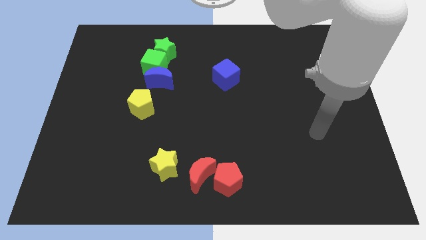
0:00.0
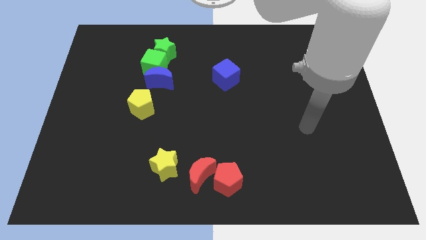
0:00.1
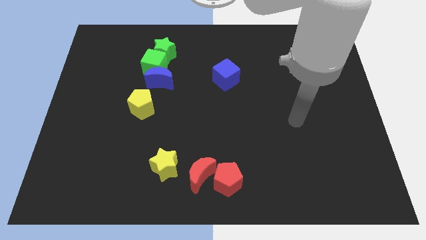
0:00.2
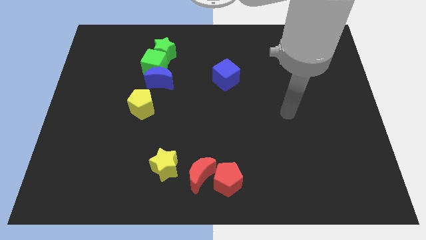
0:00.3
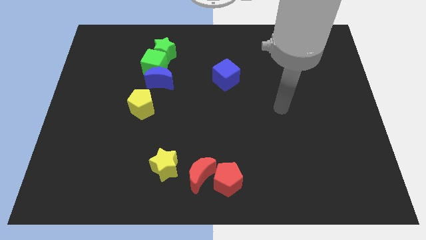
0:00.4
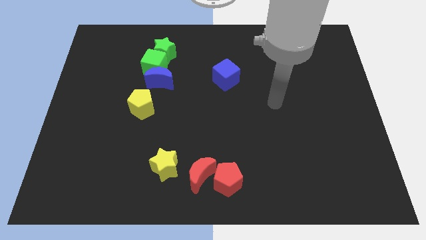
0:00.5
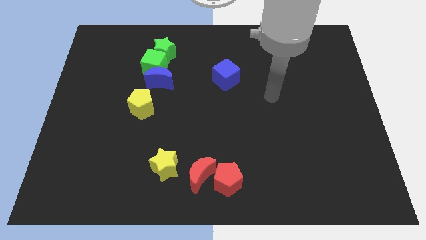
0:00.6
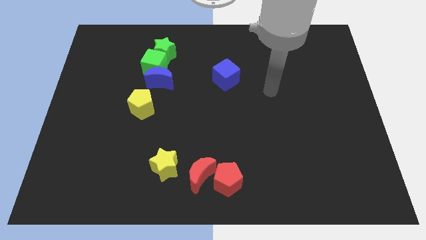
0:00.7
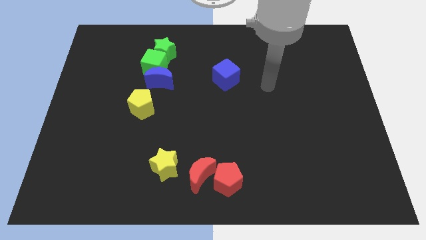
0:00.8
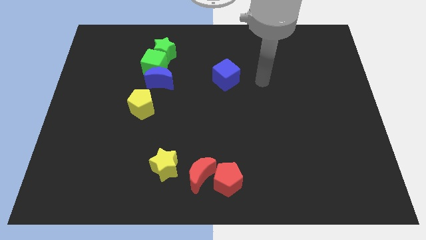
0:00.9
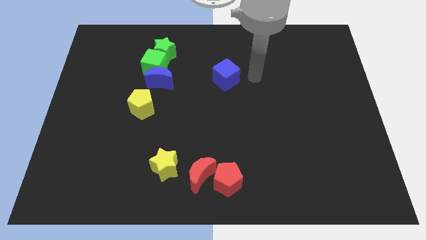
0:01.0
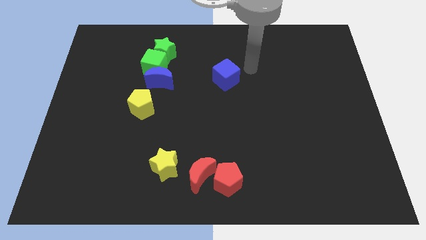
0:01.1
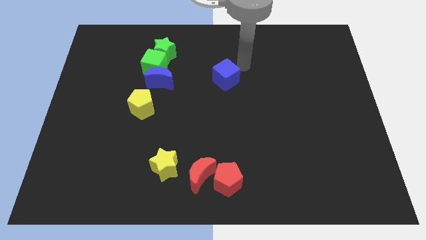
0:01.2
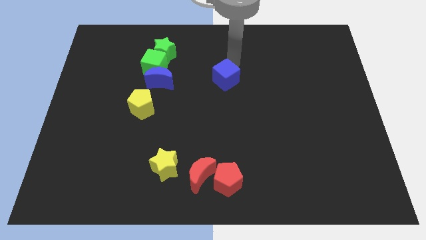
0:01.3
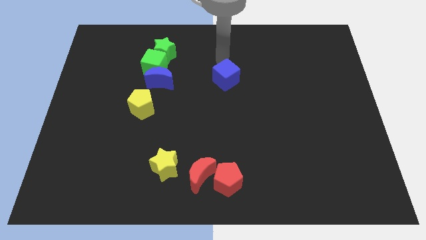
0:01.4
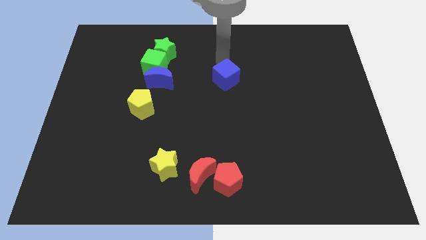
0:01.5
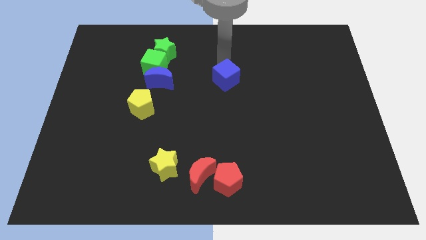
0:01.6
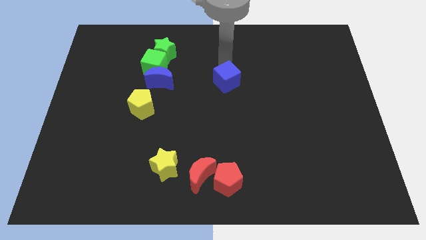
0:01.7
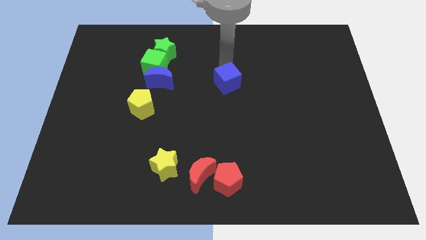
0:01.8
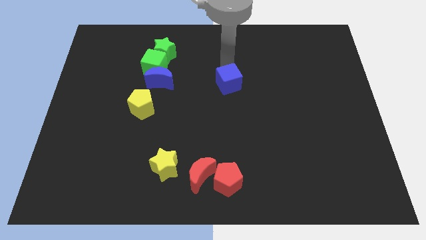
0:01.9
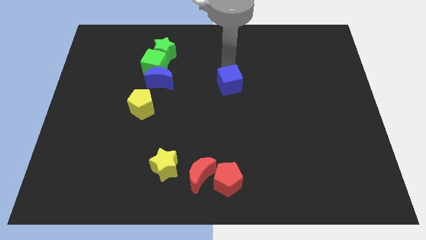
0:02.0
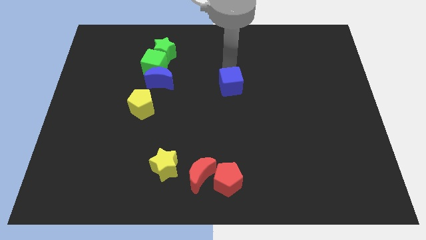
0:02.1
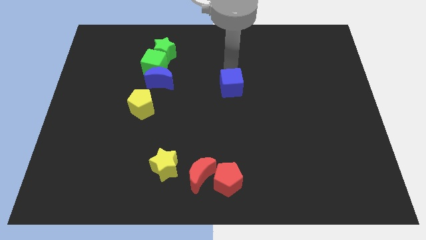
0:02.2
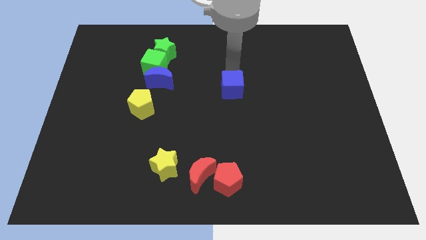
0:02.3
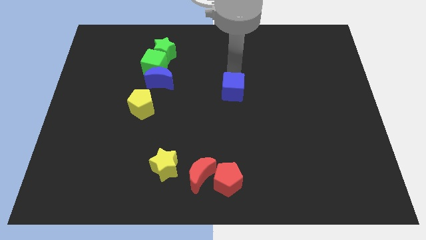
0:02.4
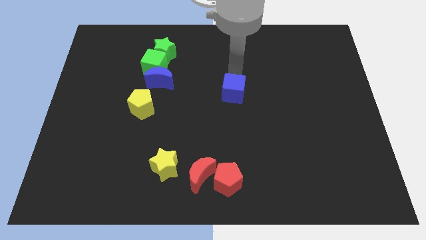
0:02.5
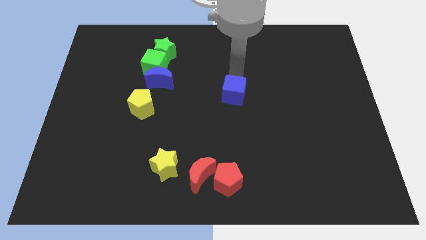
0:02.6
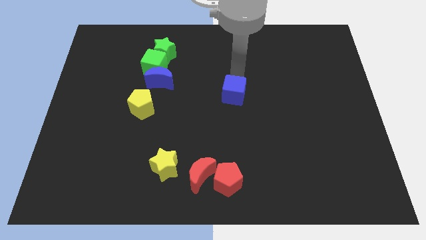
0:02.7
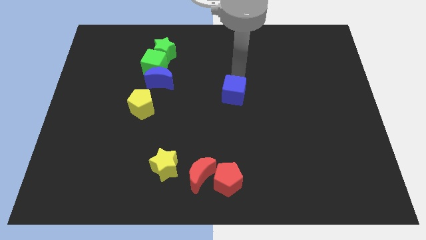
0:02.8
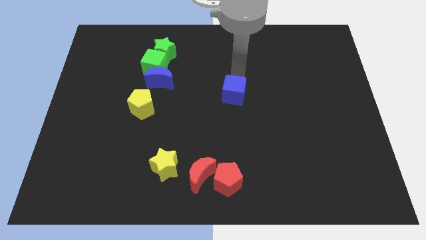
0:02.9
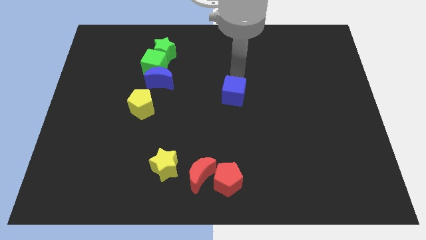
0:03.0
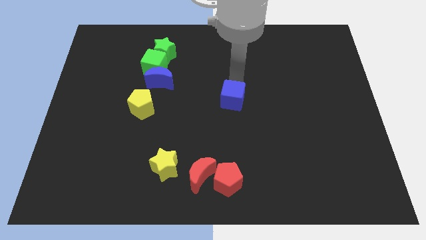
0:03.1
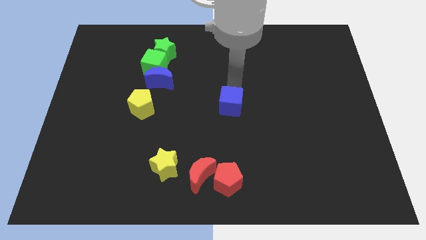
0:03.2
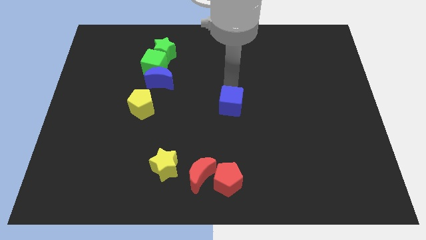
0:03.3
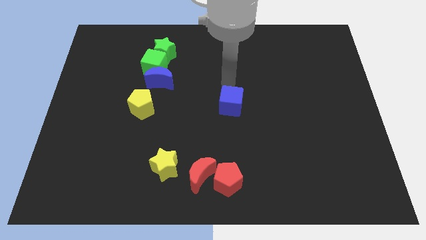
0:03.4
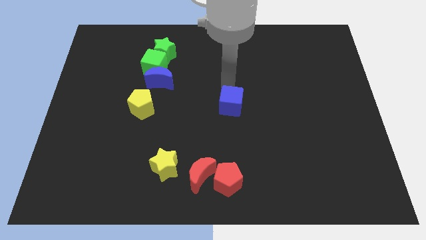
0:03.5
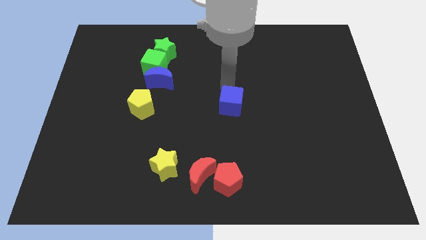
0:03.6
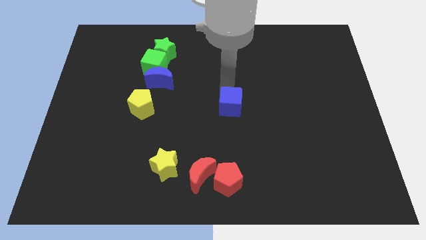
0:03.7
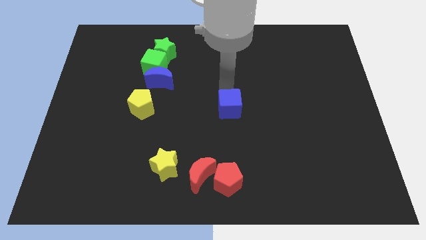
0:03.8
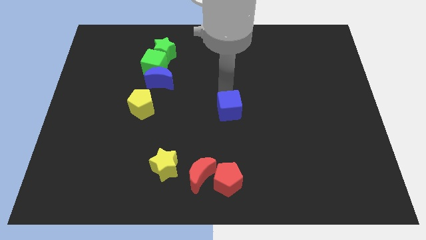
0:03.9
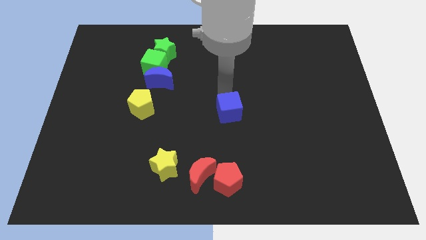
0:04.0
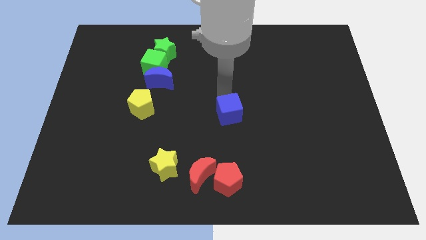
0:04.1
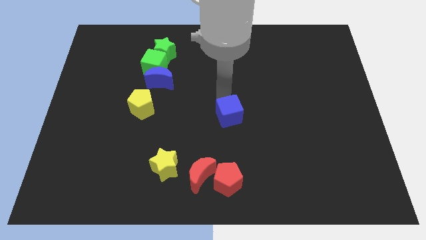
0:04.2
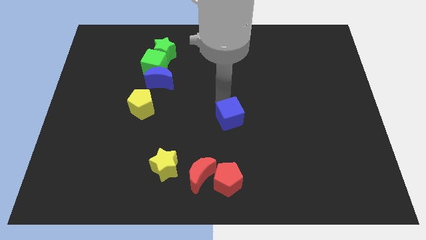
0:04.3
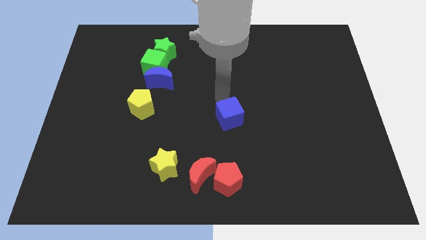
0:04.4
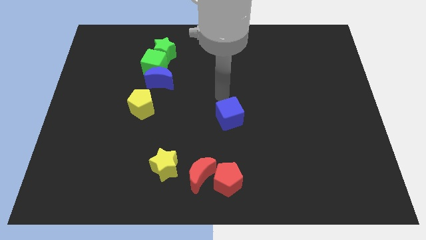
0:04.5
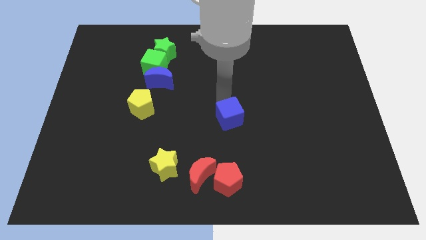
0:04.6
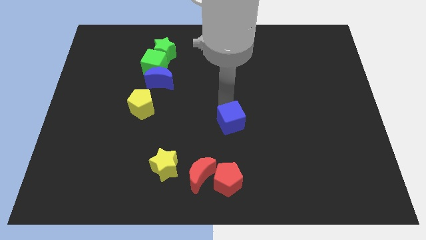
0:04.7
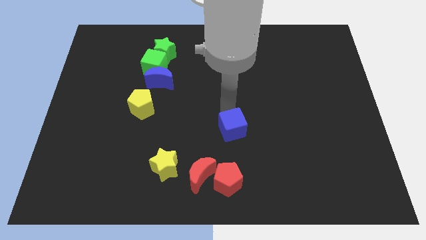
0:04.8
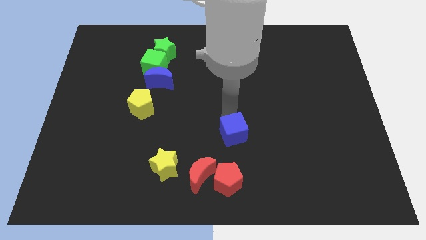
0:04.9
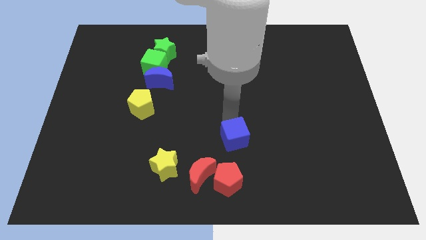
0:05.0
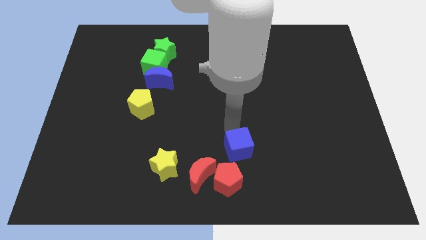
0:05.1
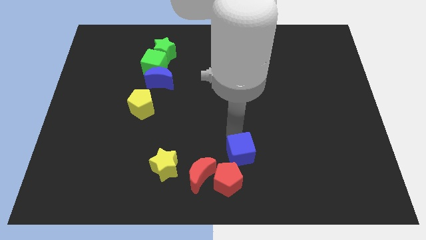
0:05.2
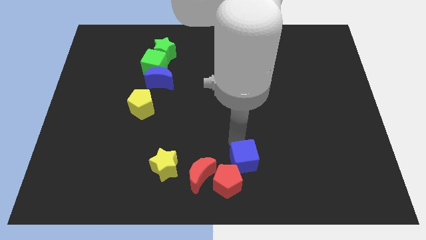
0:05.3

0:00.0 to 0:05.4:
push the blue cube just right of the red moon

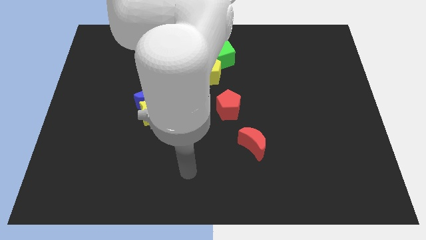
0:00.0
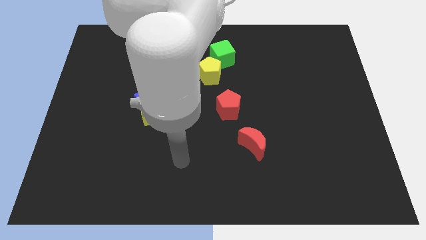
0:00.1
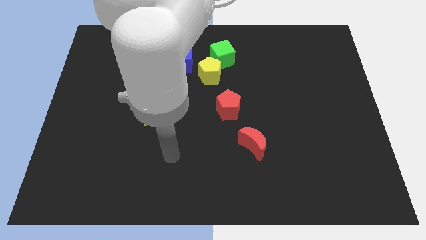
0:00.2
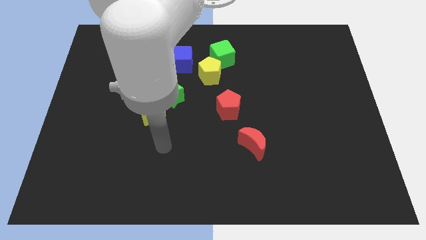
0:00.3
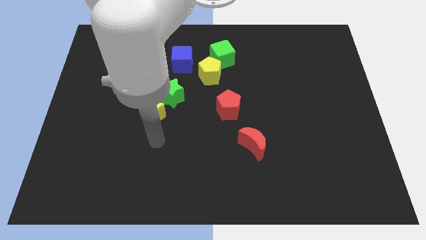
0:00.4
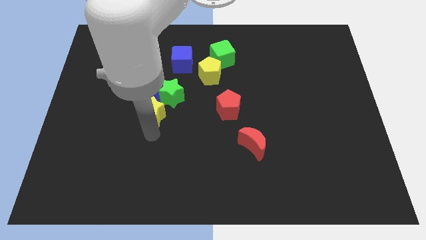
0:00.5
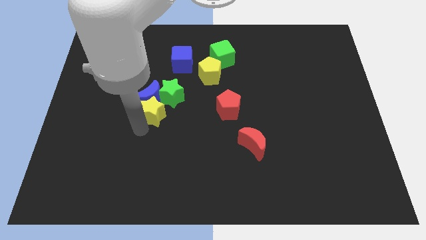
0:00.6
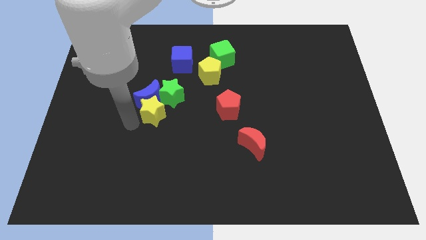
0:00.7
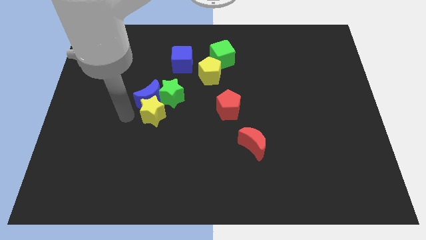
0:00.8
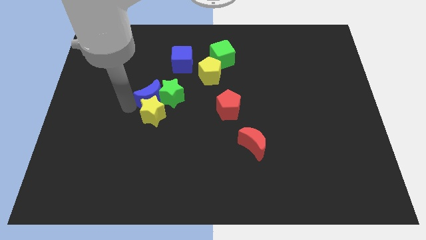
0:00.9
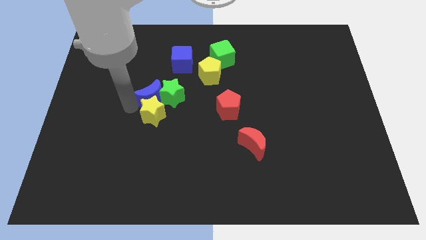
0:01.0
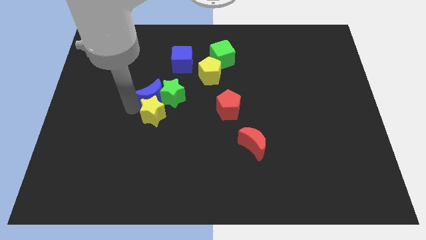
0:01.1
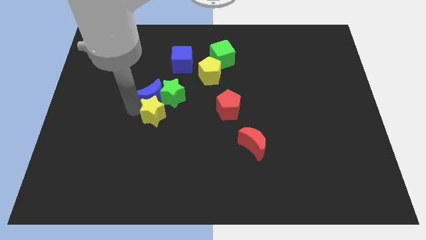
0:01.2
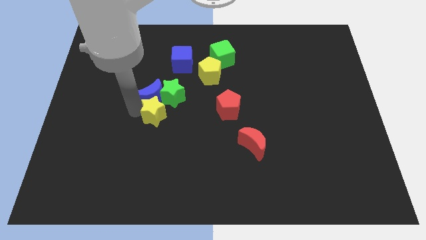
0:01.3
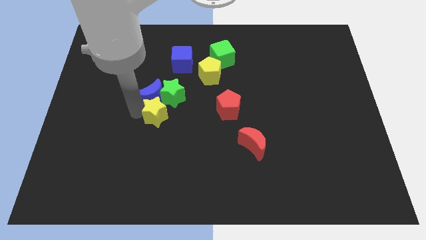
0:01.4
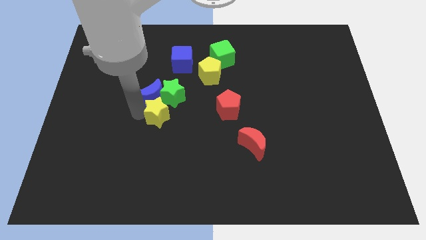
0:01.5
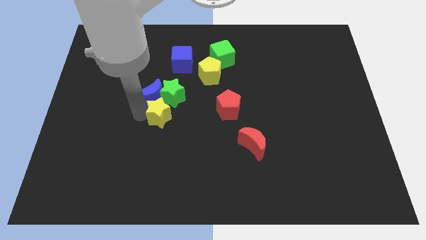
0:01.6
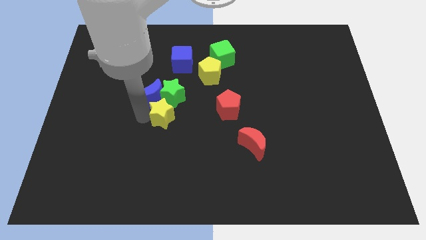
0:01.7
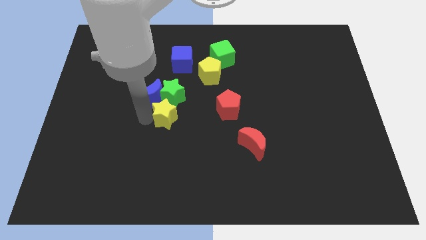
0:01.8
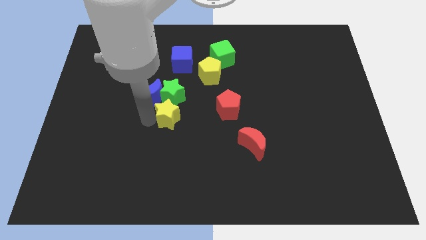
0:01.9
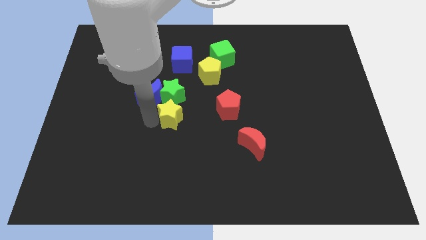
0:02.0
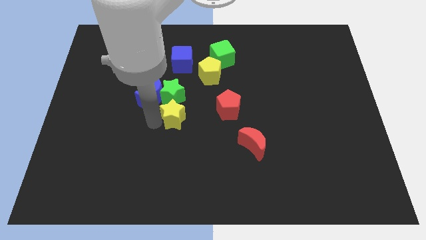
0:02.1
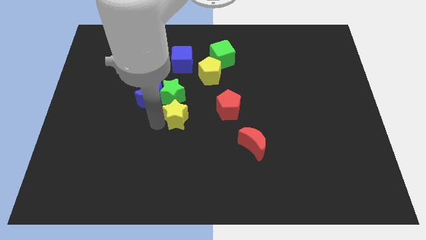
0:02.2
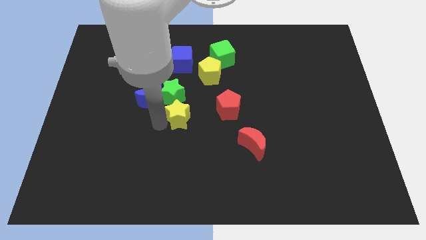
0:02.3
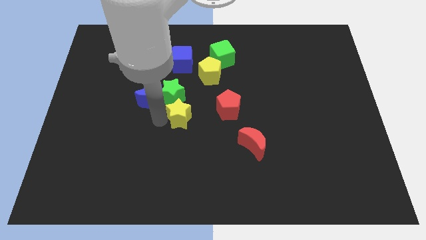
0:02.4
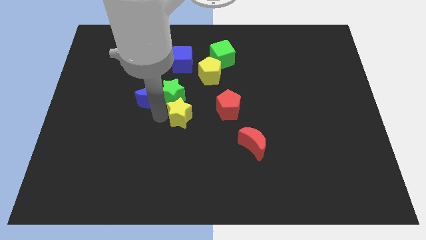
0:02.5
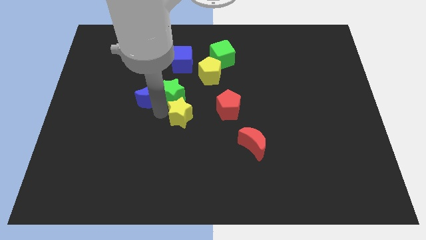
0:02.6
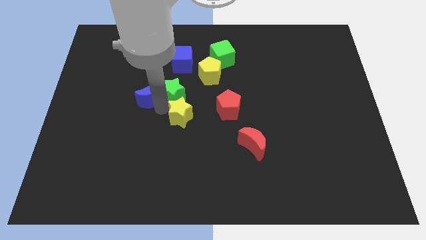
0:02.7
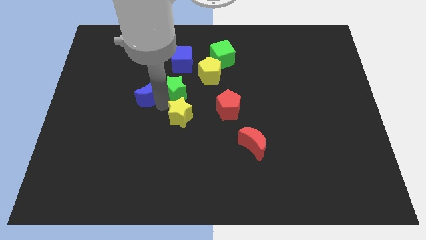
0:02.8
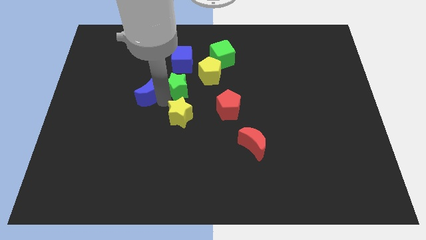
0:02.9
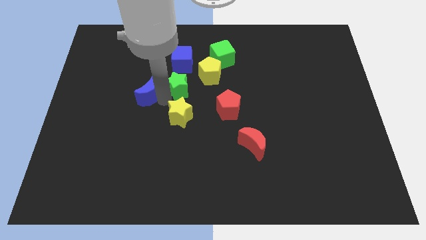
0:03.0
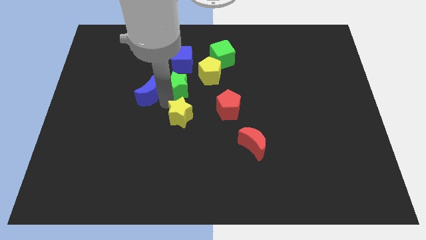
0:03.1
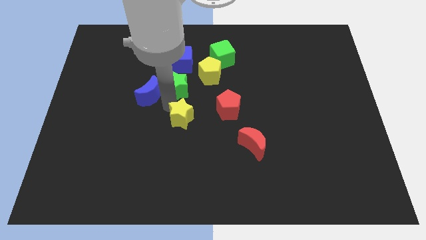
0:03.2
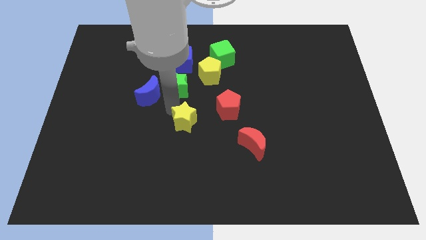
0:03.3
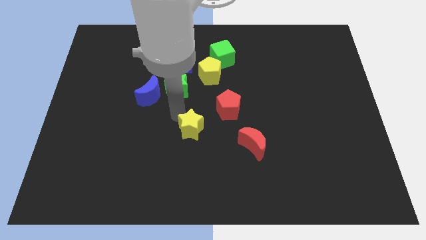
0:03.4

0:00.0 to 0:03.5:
slide the yellow star left of the red moon
